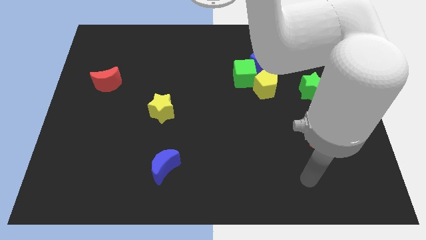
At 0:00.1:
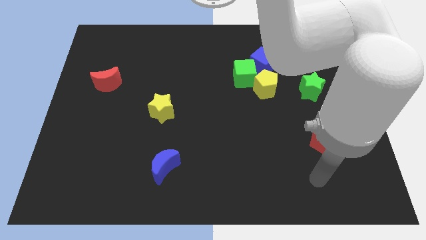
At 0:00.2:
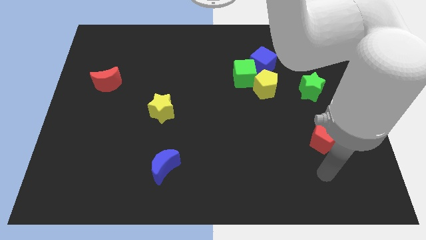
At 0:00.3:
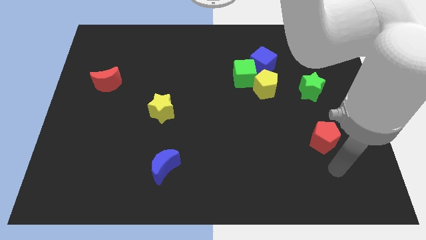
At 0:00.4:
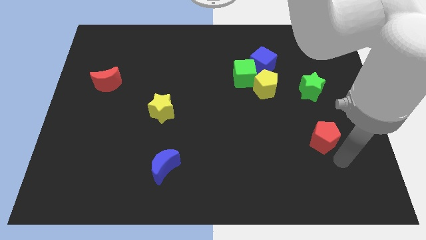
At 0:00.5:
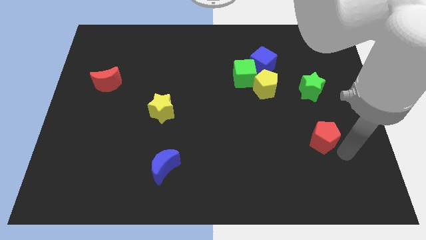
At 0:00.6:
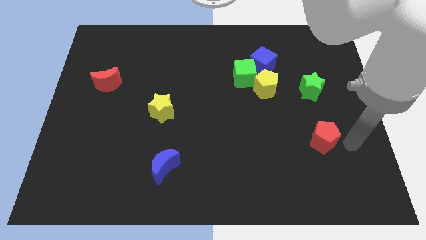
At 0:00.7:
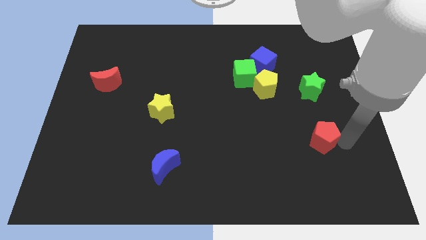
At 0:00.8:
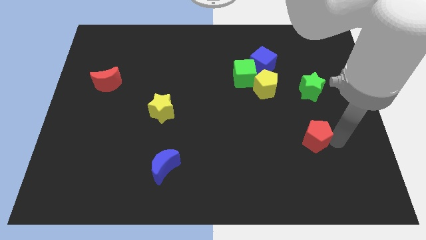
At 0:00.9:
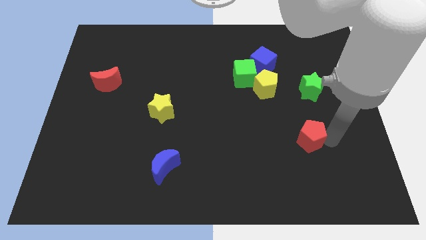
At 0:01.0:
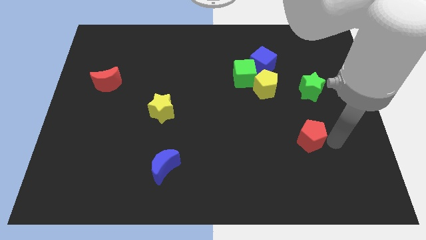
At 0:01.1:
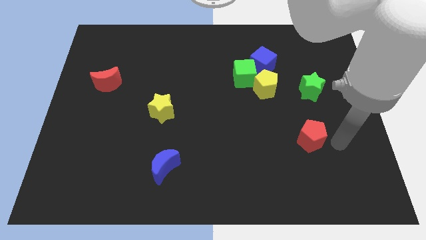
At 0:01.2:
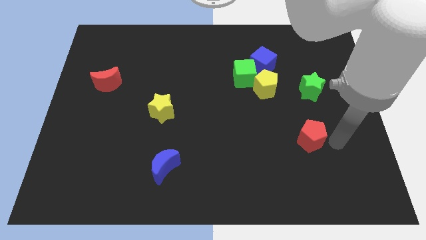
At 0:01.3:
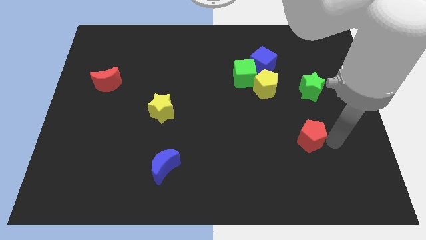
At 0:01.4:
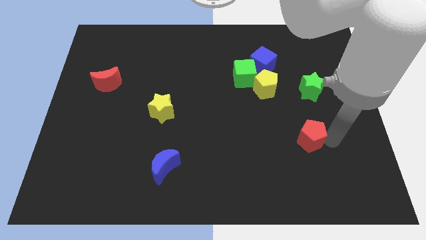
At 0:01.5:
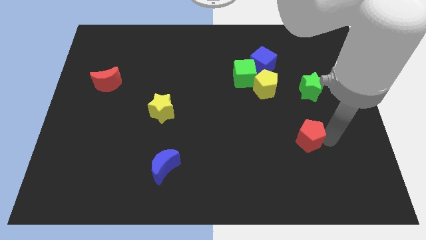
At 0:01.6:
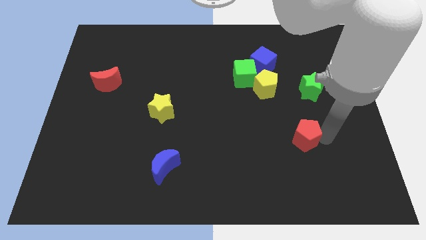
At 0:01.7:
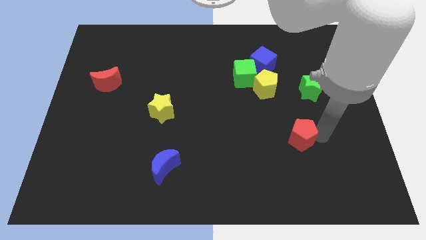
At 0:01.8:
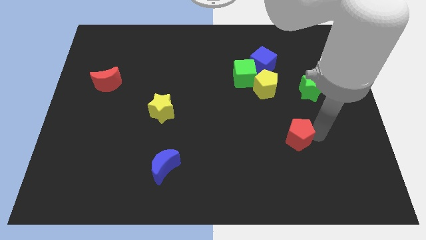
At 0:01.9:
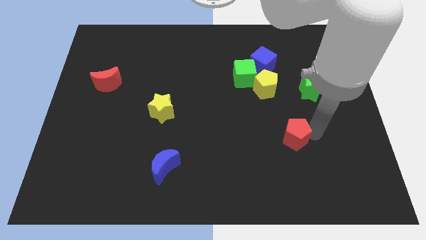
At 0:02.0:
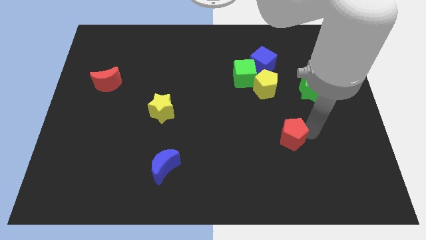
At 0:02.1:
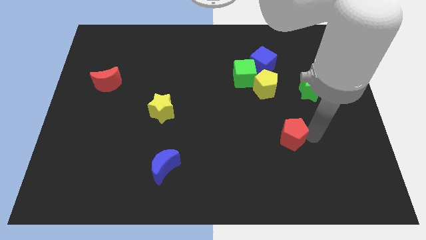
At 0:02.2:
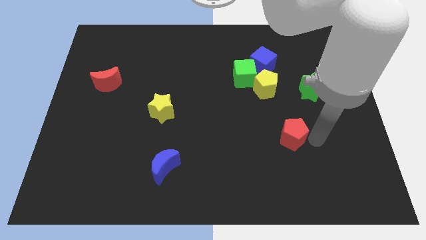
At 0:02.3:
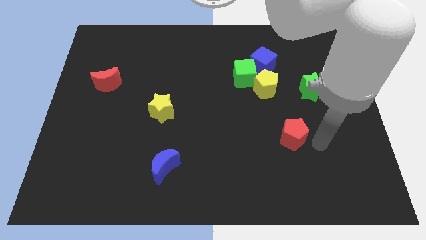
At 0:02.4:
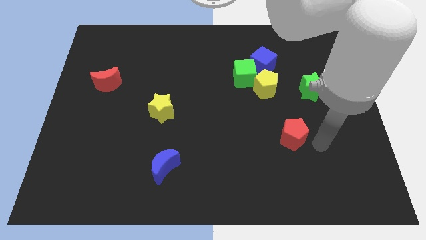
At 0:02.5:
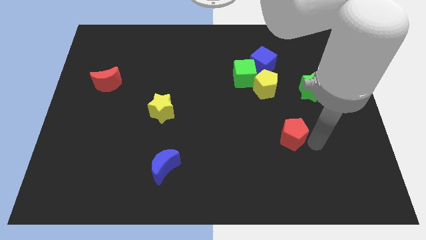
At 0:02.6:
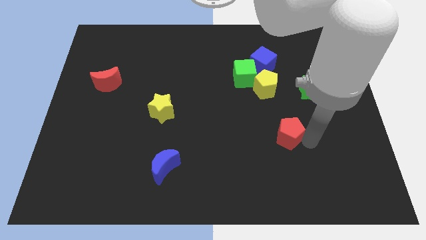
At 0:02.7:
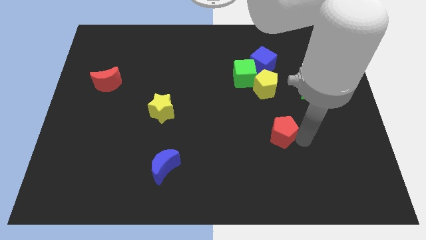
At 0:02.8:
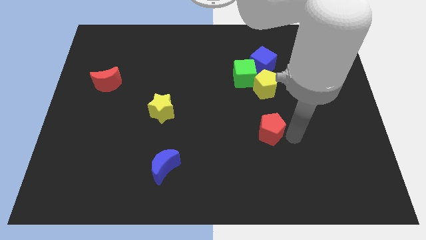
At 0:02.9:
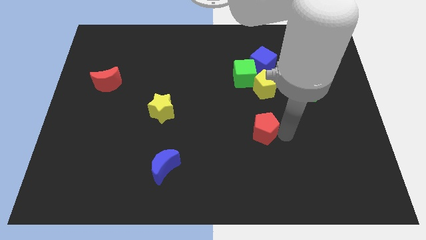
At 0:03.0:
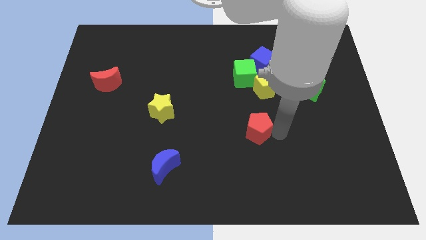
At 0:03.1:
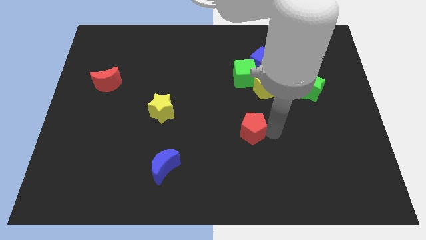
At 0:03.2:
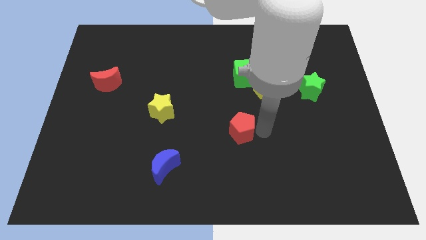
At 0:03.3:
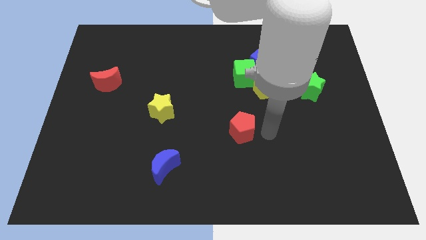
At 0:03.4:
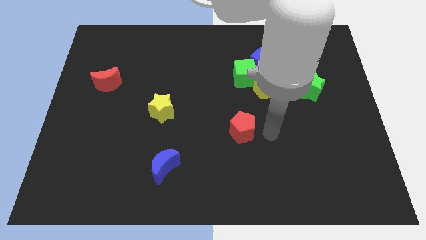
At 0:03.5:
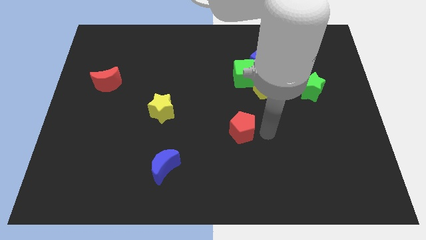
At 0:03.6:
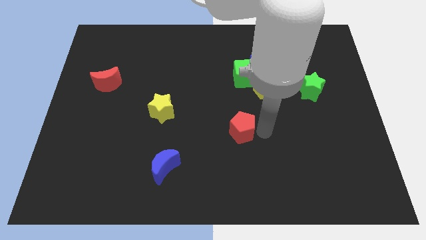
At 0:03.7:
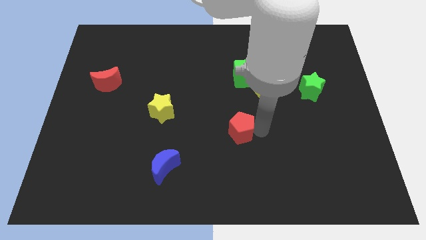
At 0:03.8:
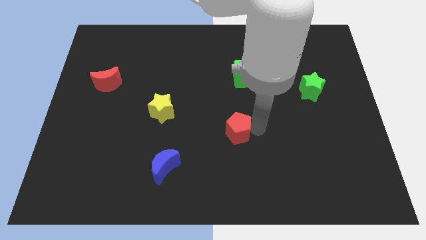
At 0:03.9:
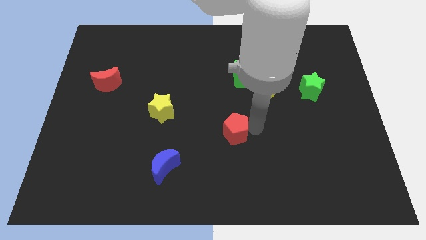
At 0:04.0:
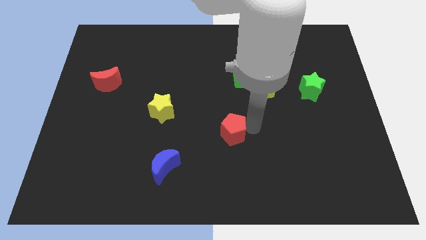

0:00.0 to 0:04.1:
move the red pentagon to the left

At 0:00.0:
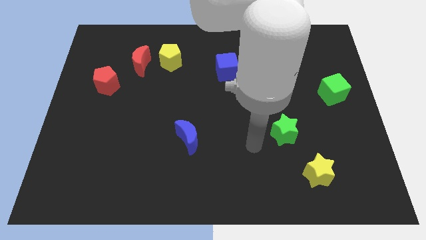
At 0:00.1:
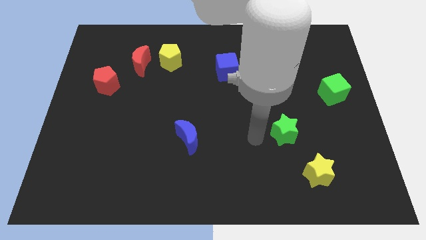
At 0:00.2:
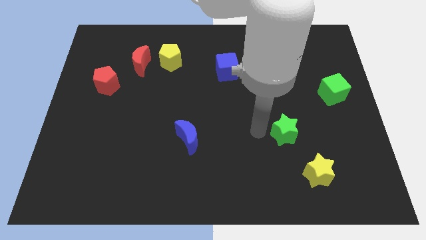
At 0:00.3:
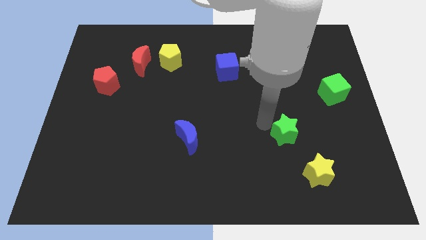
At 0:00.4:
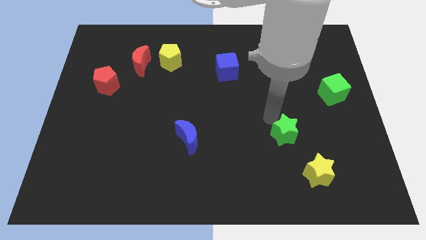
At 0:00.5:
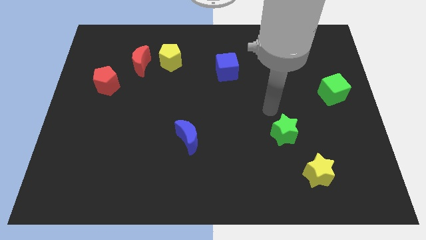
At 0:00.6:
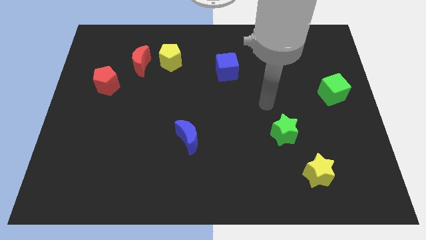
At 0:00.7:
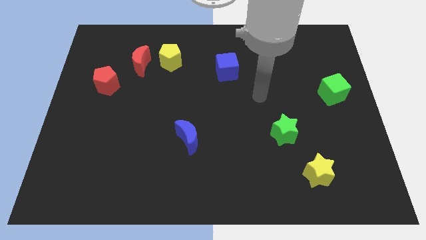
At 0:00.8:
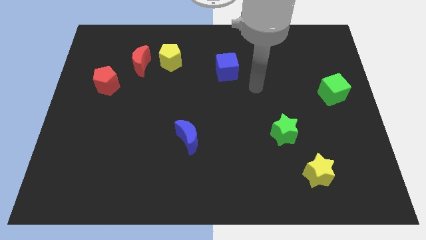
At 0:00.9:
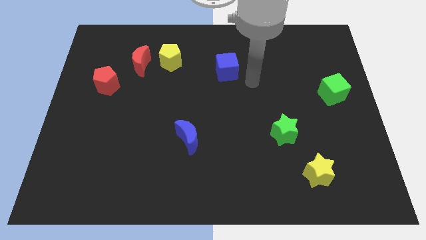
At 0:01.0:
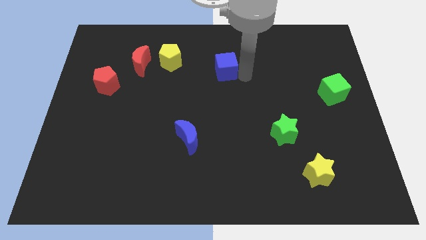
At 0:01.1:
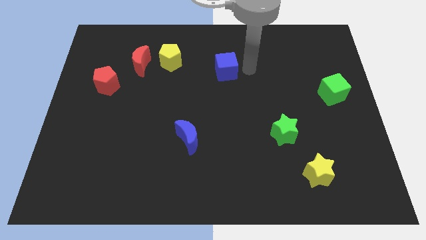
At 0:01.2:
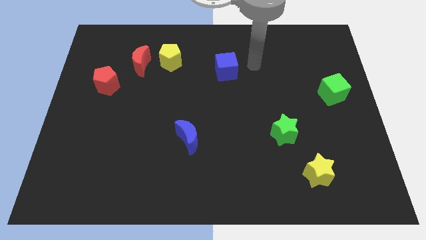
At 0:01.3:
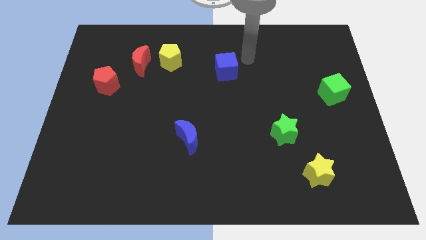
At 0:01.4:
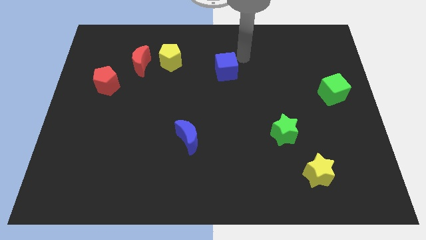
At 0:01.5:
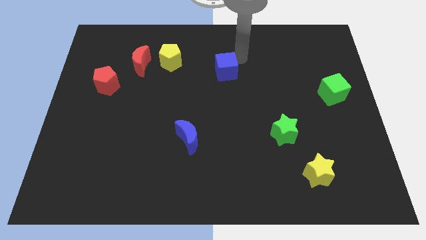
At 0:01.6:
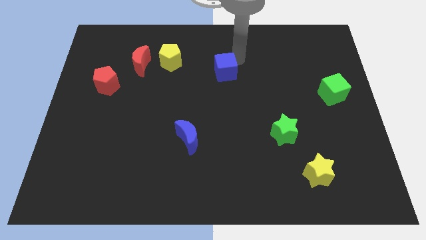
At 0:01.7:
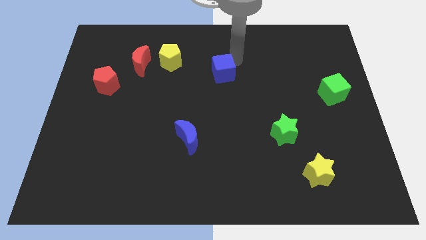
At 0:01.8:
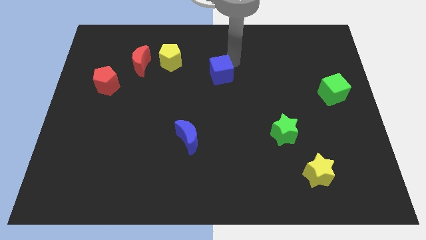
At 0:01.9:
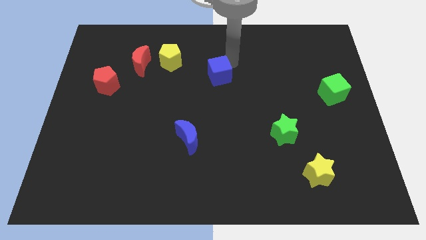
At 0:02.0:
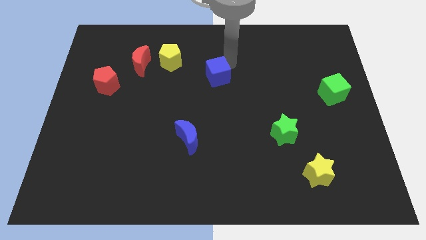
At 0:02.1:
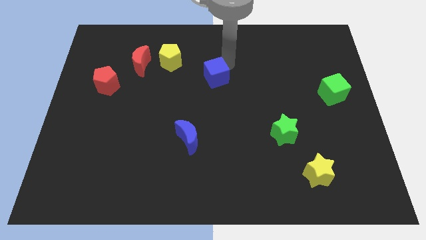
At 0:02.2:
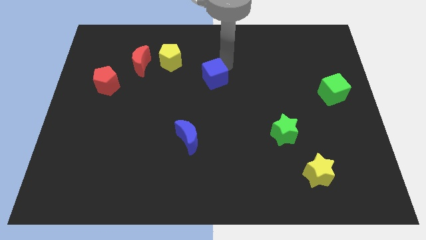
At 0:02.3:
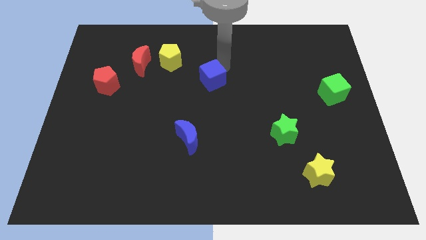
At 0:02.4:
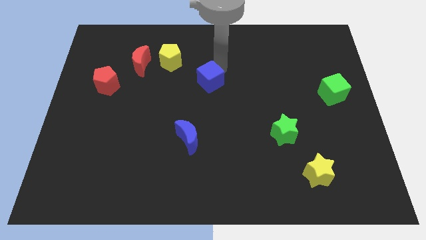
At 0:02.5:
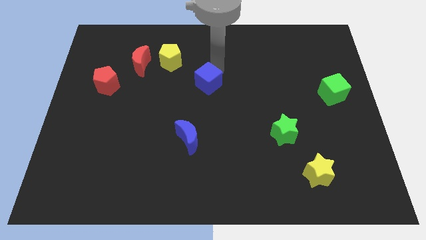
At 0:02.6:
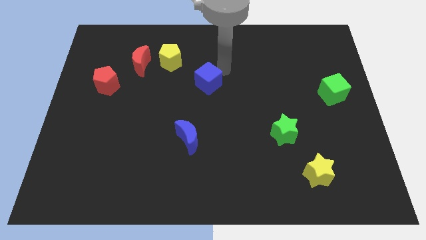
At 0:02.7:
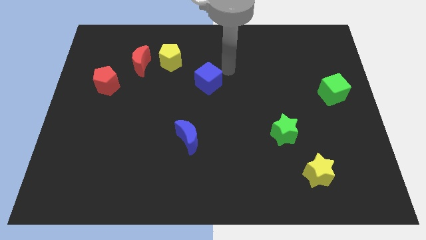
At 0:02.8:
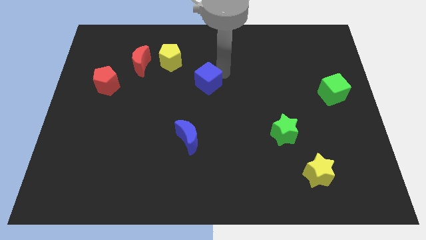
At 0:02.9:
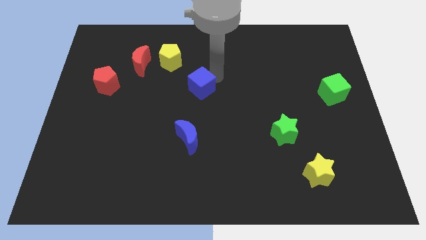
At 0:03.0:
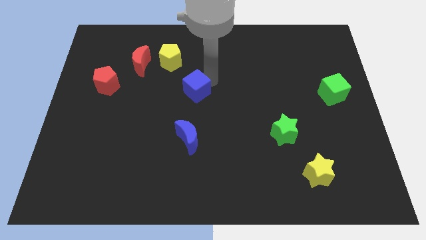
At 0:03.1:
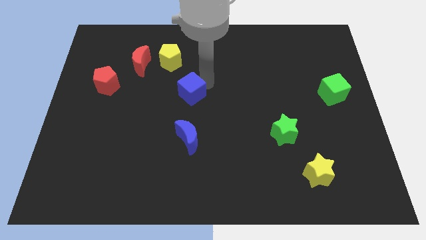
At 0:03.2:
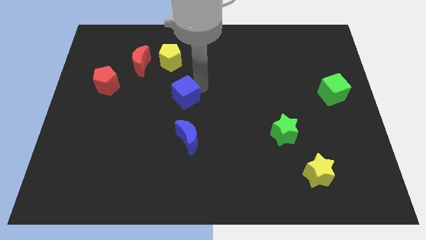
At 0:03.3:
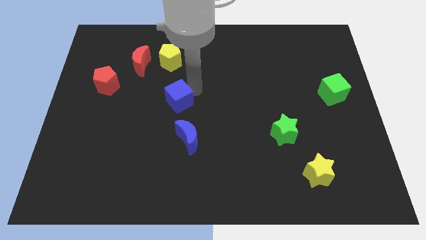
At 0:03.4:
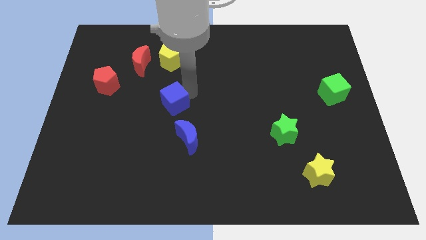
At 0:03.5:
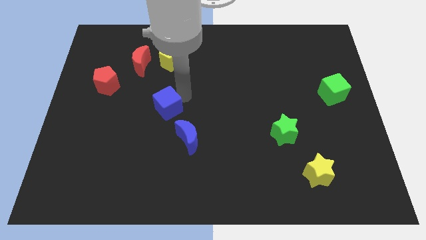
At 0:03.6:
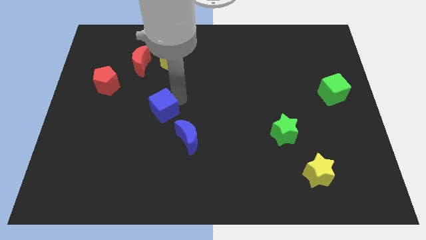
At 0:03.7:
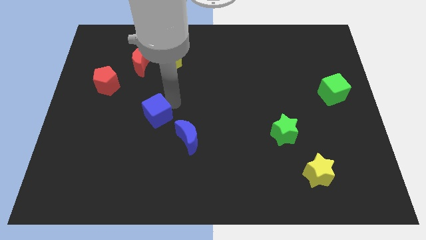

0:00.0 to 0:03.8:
move the blue cube down and left diagonally
